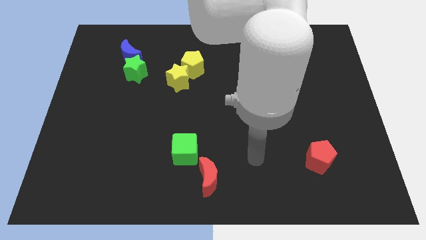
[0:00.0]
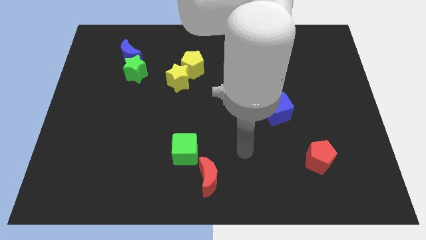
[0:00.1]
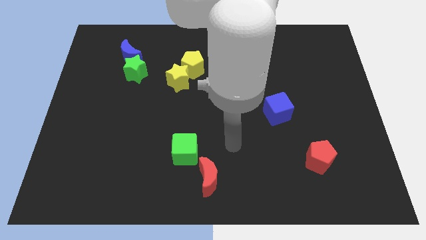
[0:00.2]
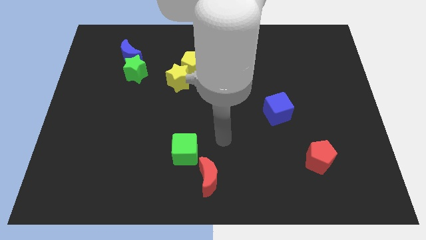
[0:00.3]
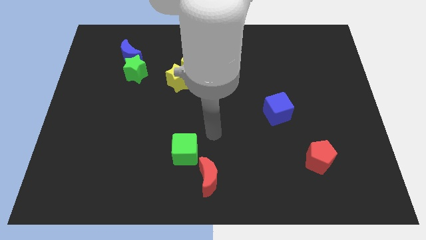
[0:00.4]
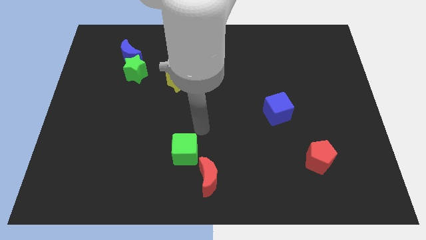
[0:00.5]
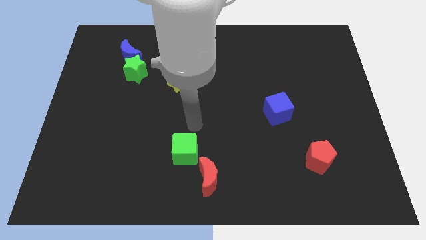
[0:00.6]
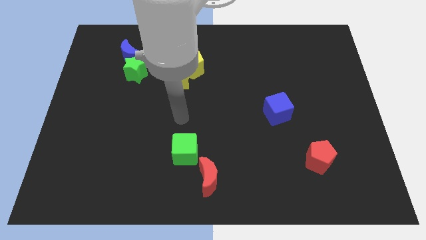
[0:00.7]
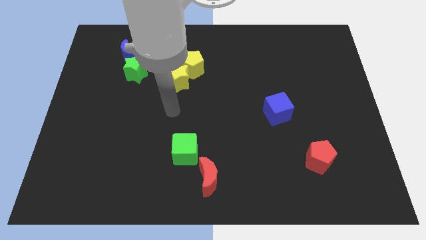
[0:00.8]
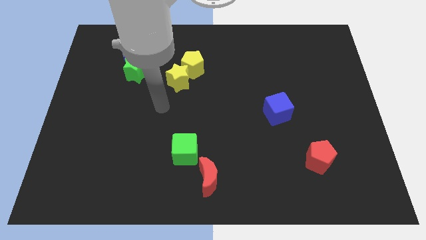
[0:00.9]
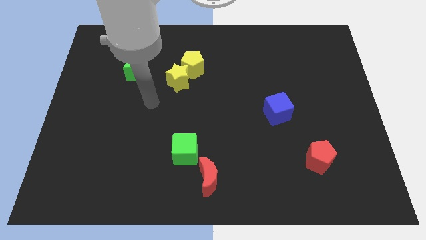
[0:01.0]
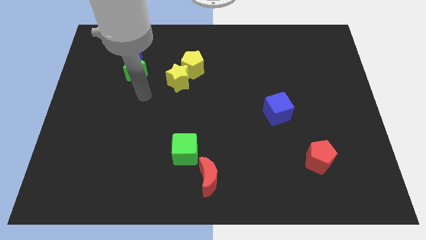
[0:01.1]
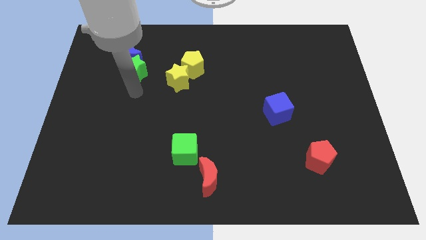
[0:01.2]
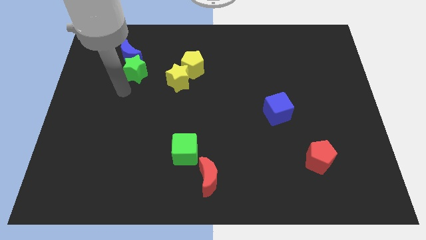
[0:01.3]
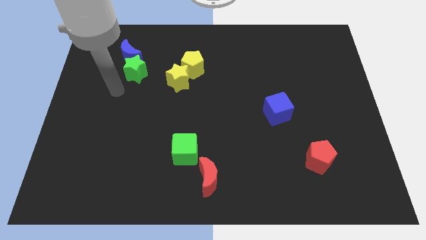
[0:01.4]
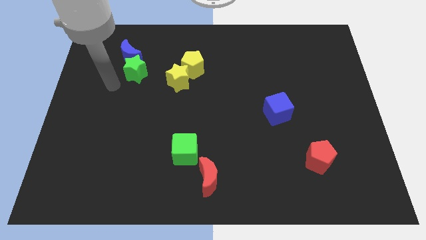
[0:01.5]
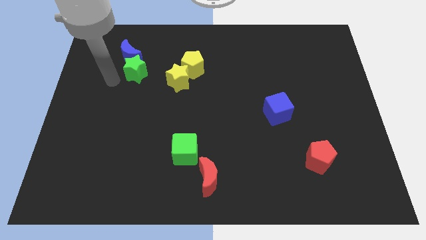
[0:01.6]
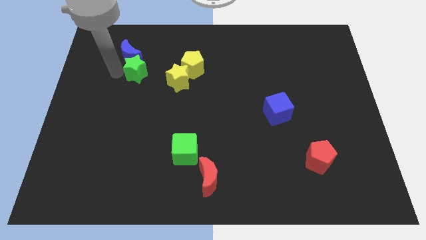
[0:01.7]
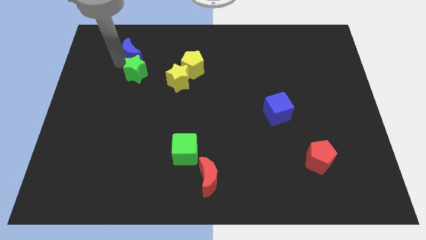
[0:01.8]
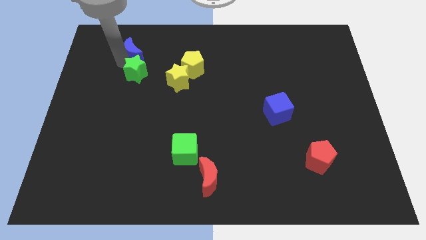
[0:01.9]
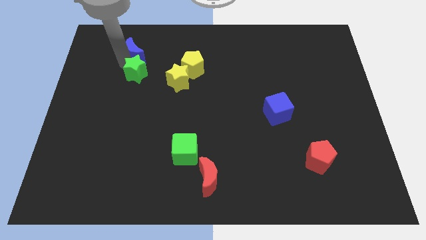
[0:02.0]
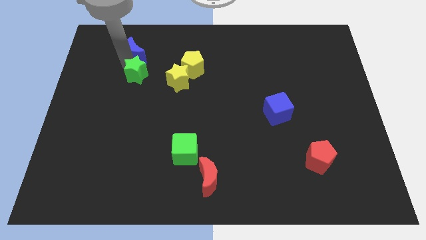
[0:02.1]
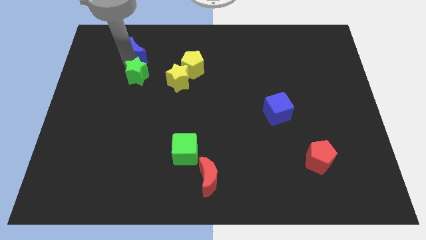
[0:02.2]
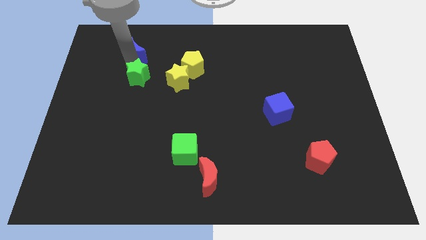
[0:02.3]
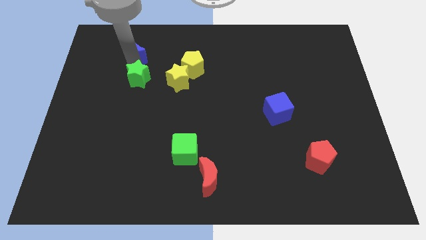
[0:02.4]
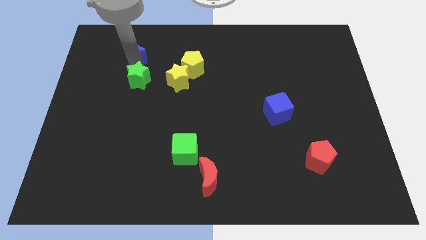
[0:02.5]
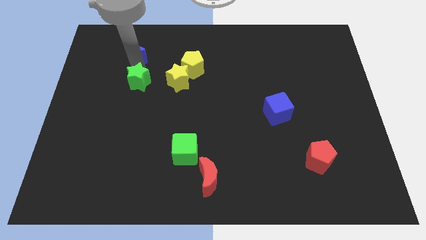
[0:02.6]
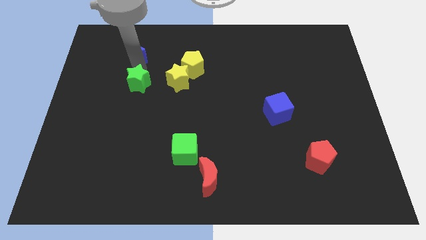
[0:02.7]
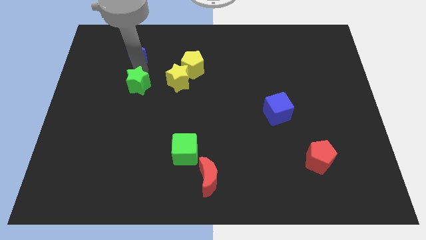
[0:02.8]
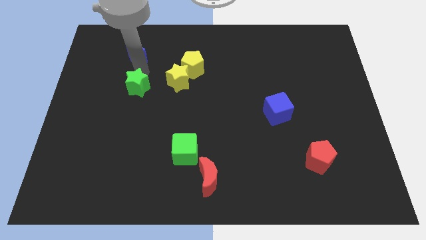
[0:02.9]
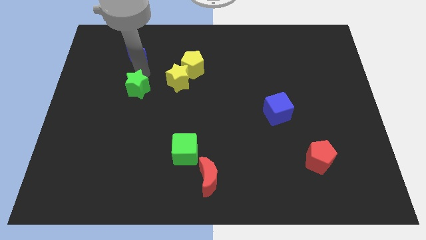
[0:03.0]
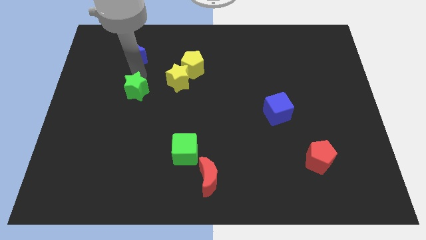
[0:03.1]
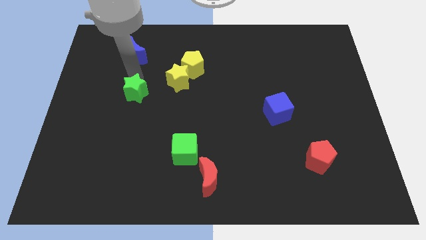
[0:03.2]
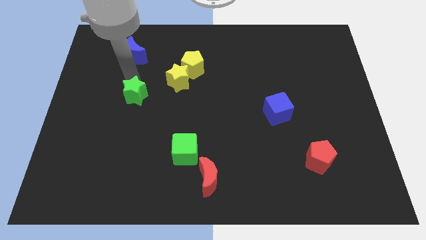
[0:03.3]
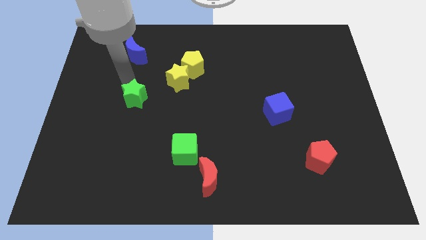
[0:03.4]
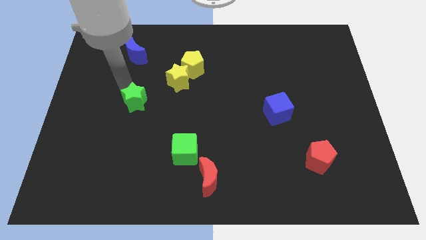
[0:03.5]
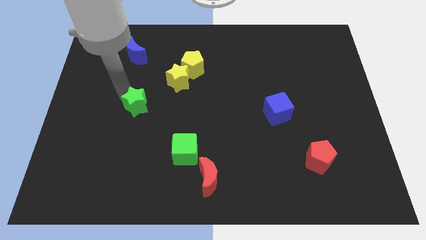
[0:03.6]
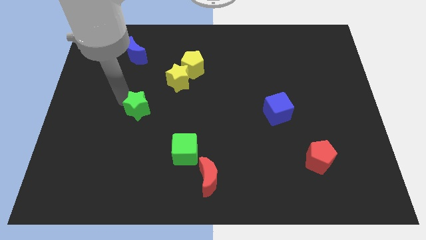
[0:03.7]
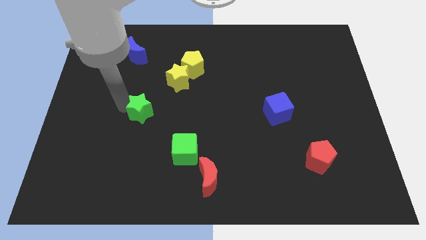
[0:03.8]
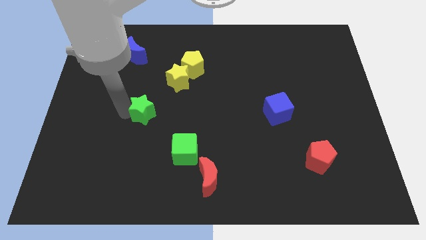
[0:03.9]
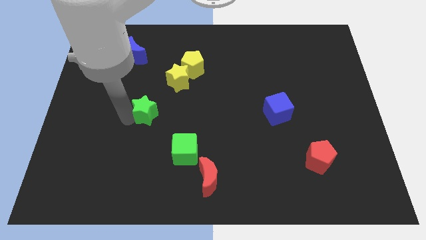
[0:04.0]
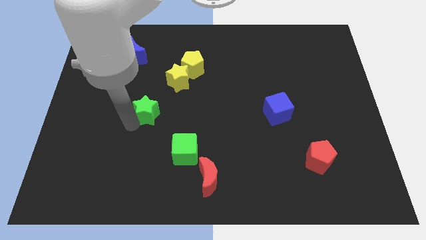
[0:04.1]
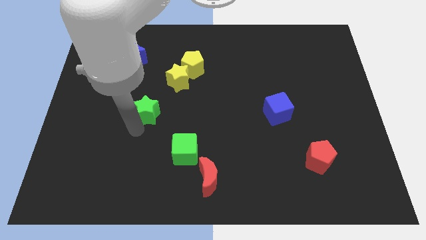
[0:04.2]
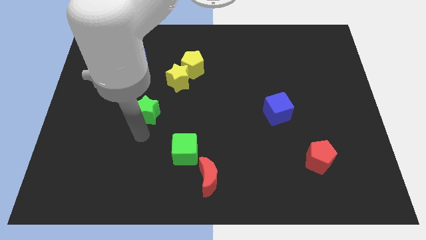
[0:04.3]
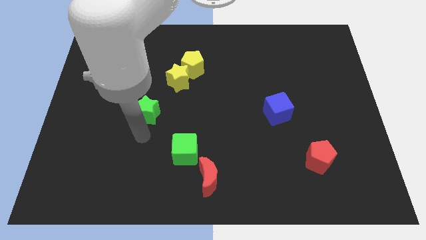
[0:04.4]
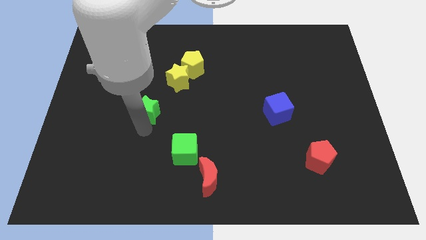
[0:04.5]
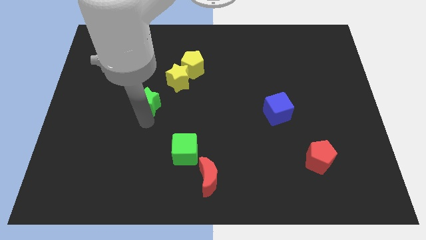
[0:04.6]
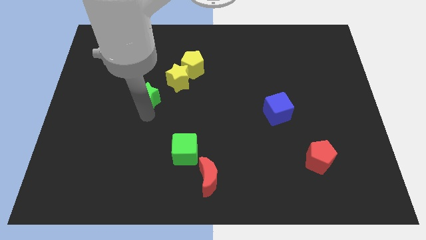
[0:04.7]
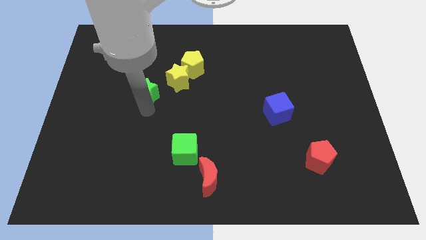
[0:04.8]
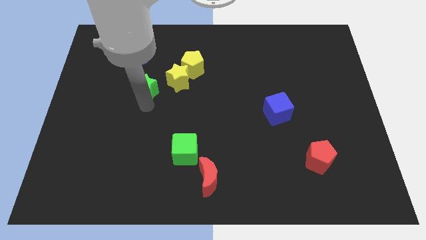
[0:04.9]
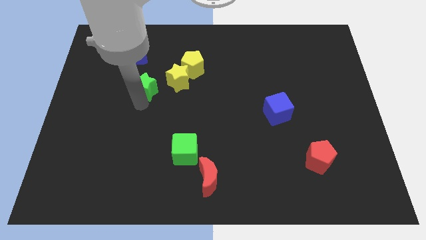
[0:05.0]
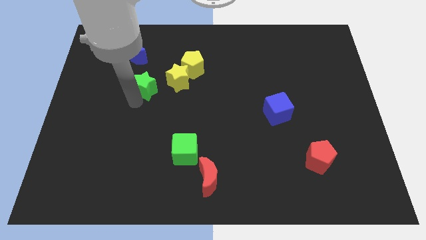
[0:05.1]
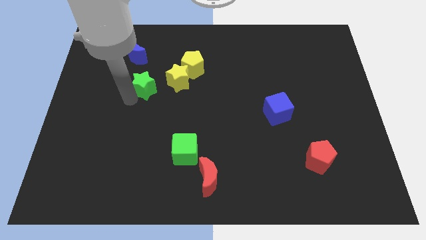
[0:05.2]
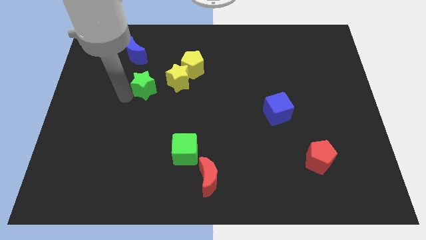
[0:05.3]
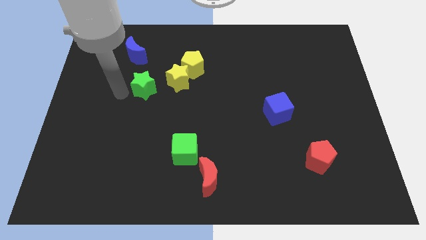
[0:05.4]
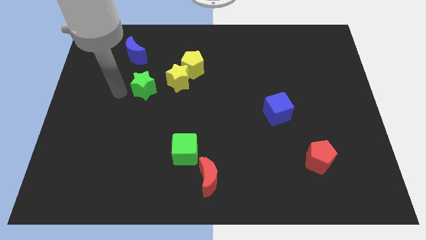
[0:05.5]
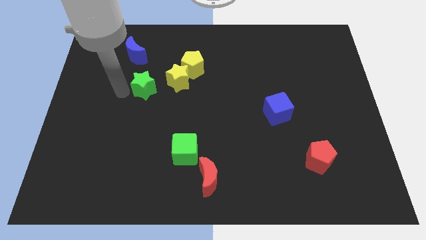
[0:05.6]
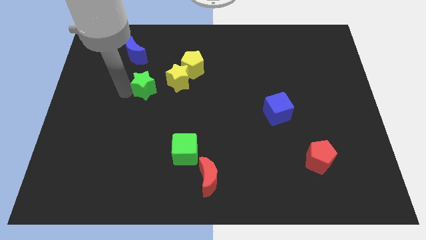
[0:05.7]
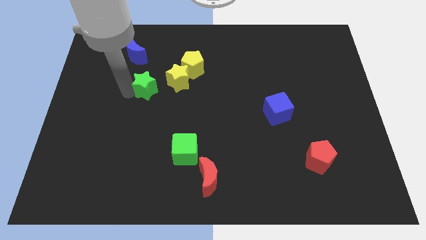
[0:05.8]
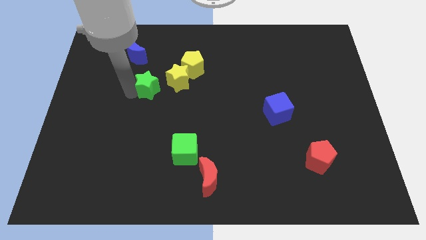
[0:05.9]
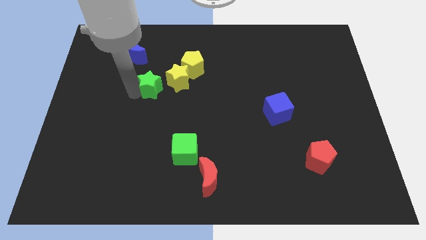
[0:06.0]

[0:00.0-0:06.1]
push the green star to the bottom left side of the yellow pentagon

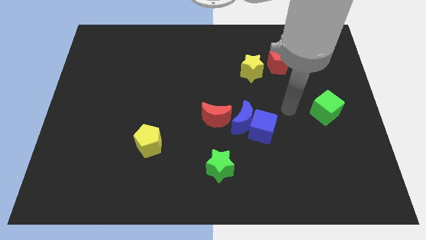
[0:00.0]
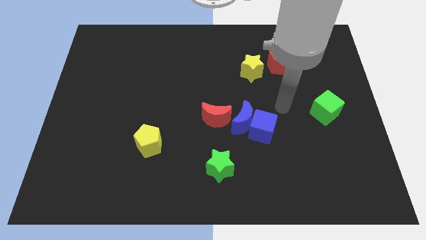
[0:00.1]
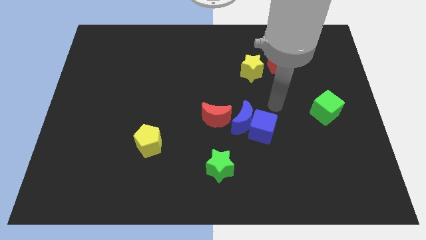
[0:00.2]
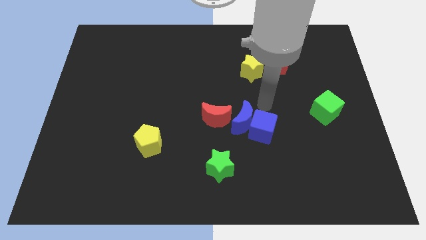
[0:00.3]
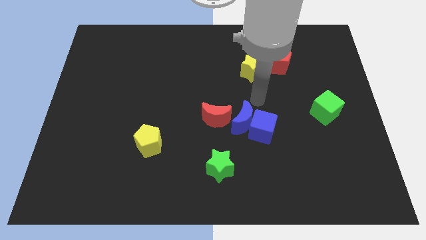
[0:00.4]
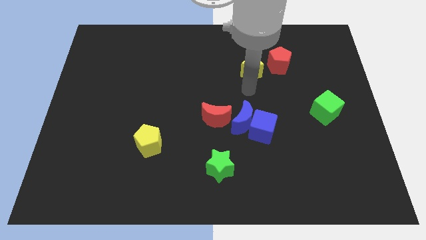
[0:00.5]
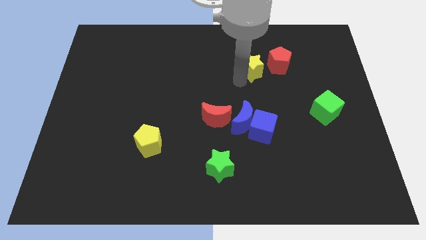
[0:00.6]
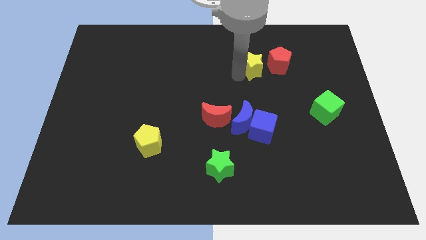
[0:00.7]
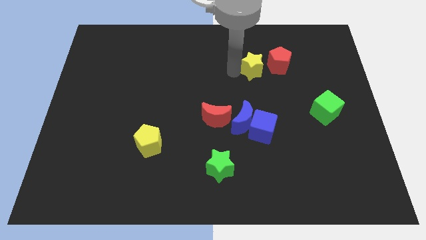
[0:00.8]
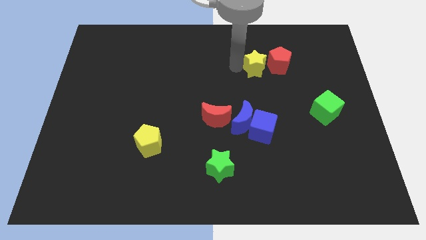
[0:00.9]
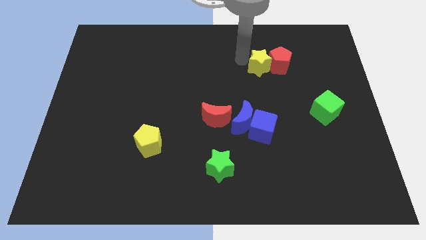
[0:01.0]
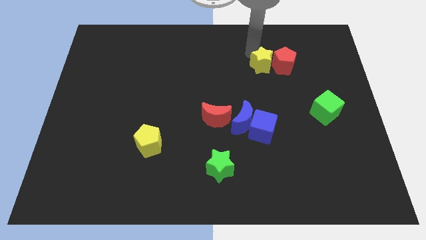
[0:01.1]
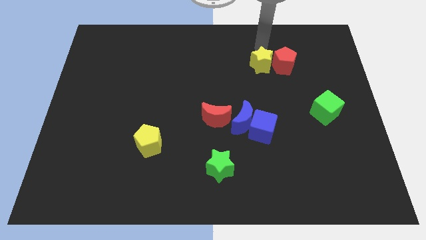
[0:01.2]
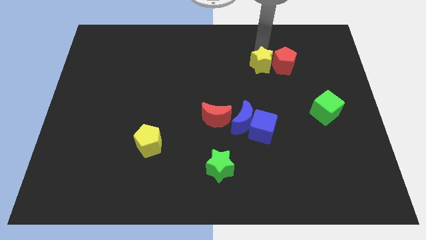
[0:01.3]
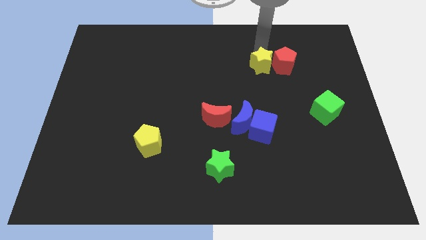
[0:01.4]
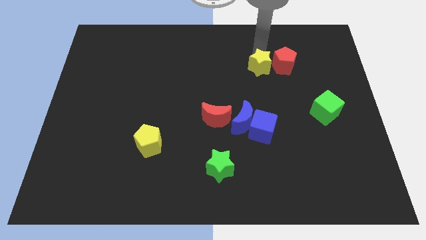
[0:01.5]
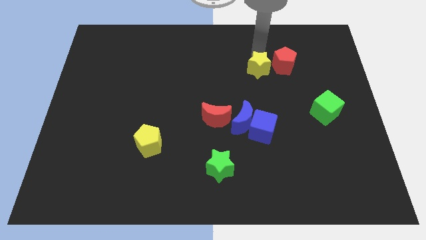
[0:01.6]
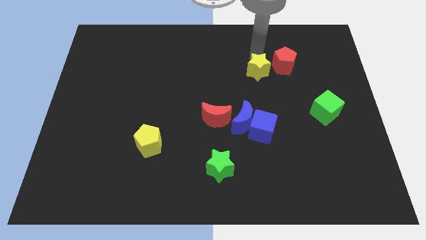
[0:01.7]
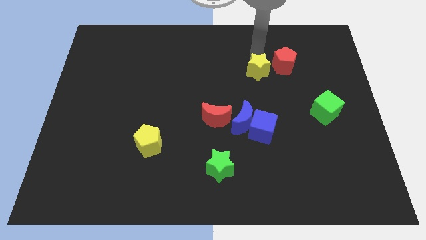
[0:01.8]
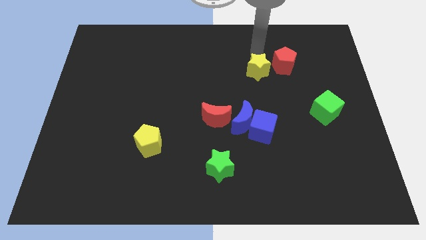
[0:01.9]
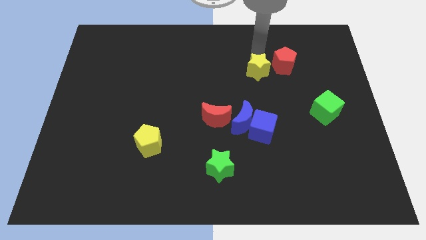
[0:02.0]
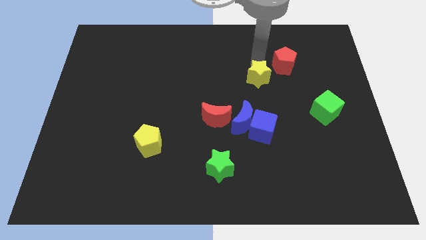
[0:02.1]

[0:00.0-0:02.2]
slide the yellow star above the blue cube
